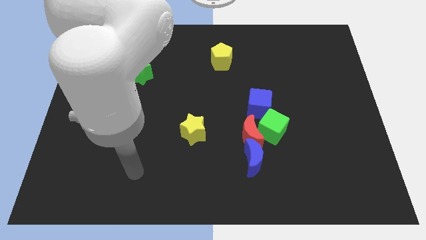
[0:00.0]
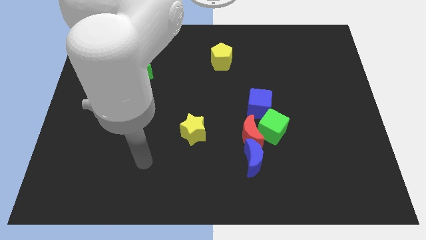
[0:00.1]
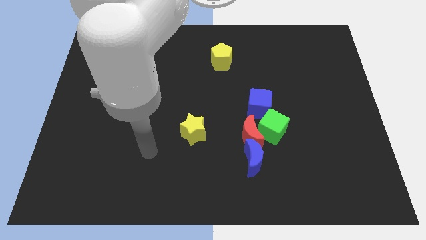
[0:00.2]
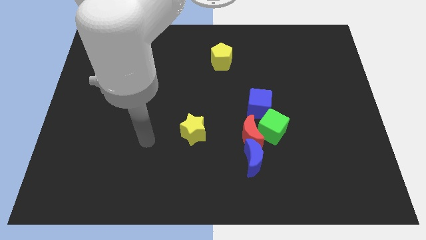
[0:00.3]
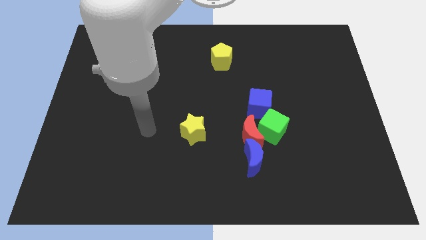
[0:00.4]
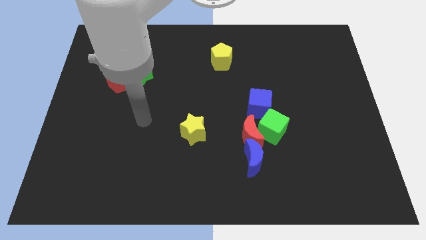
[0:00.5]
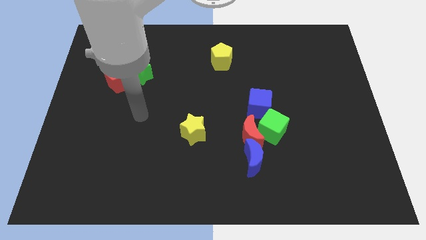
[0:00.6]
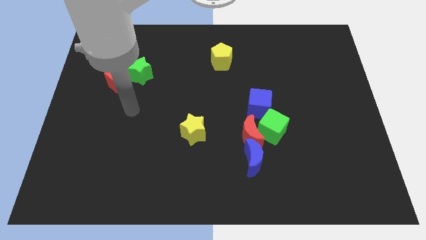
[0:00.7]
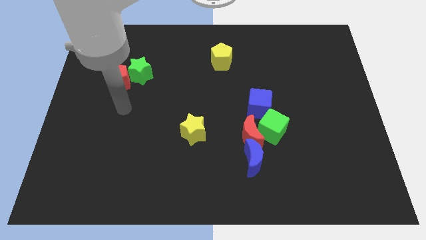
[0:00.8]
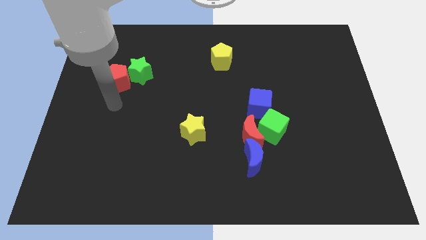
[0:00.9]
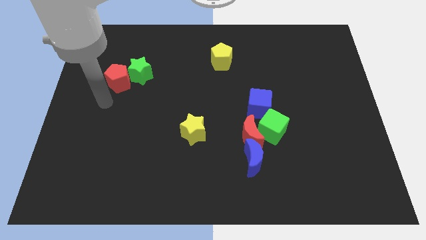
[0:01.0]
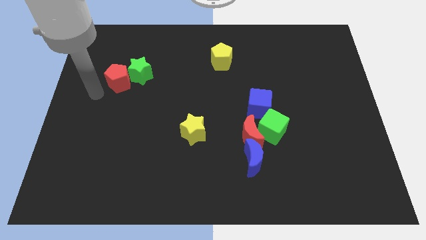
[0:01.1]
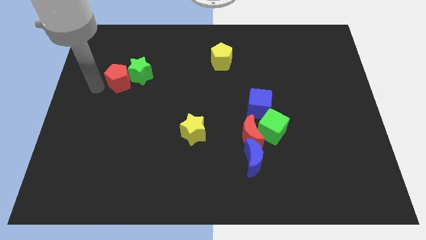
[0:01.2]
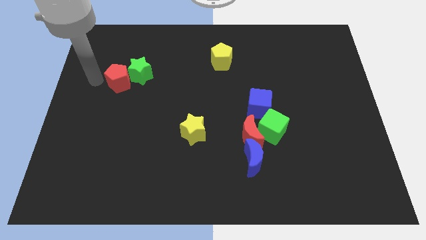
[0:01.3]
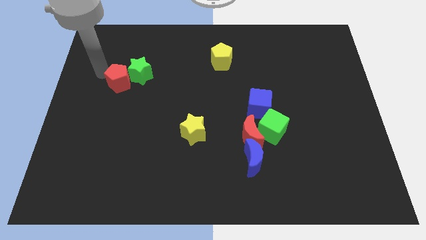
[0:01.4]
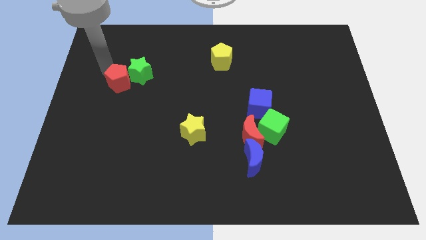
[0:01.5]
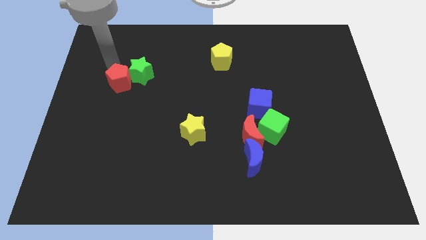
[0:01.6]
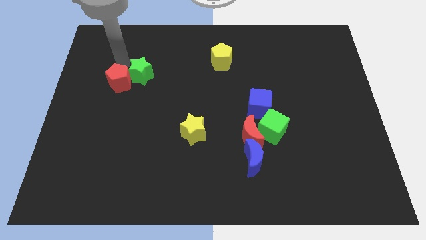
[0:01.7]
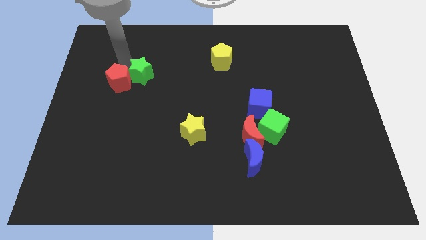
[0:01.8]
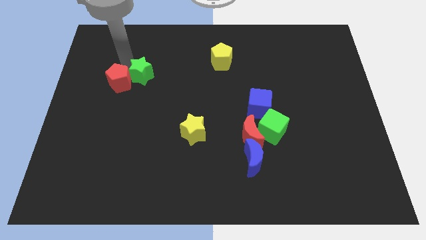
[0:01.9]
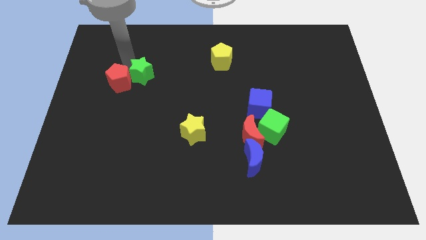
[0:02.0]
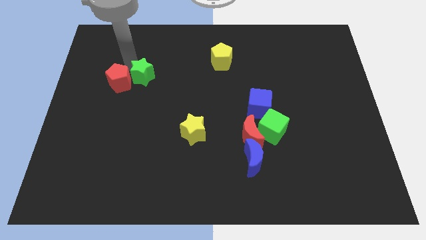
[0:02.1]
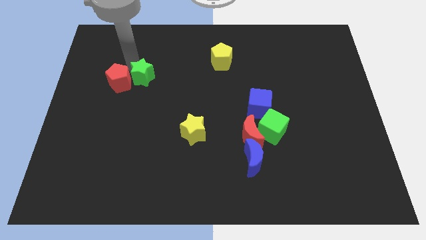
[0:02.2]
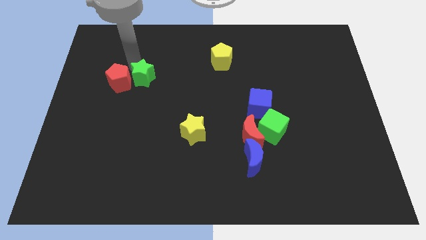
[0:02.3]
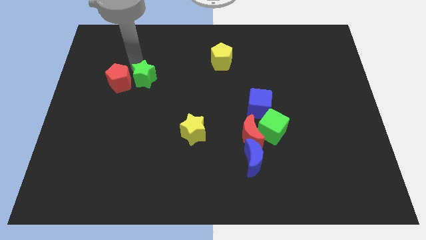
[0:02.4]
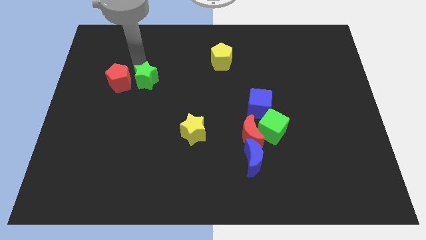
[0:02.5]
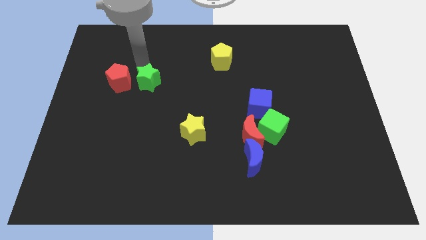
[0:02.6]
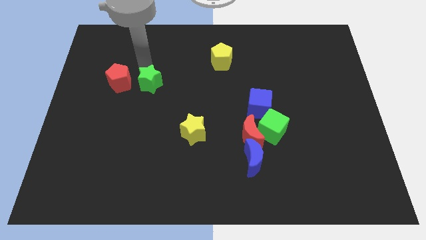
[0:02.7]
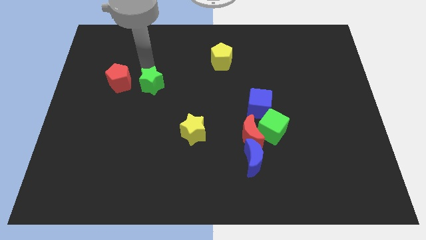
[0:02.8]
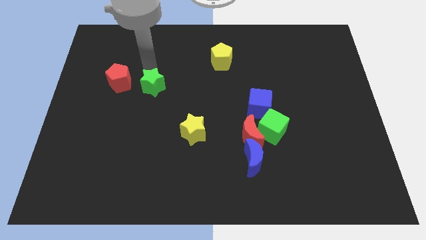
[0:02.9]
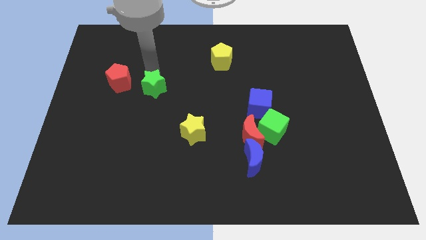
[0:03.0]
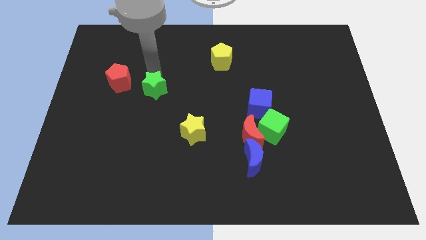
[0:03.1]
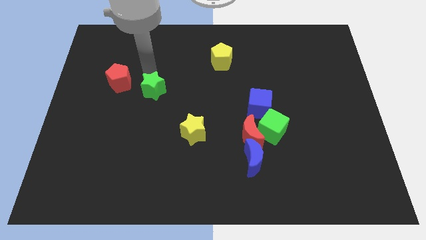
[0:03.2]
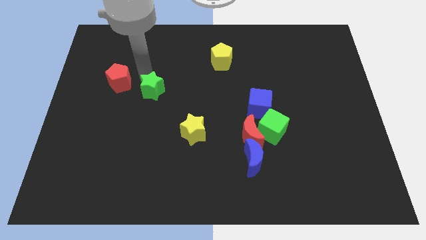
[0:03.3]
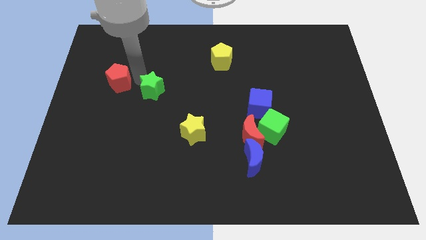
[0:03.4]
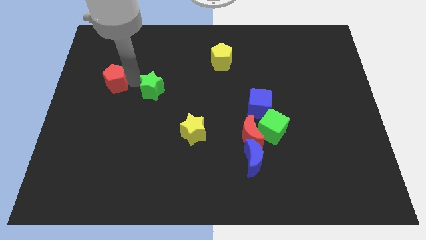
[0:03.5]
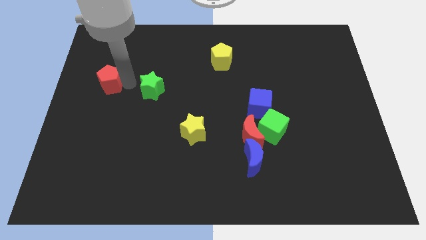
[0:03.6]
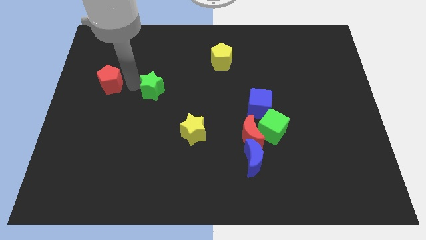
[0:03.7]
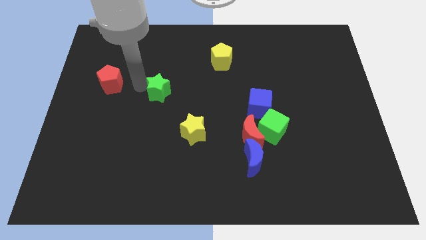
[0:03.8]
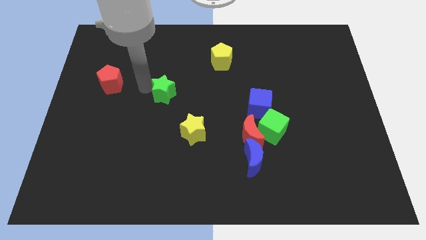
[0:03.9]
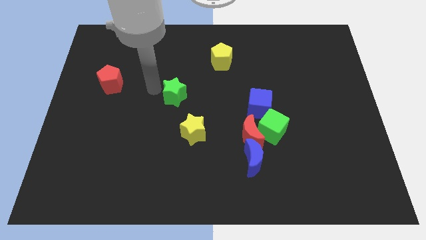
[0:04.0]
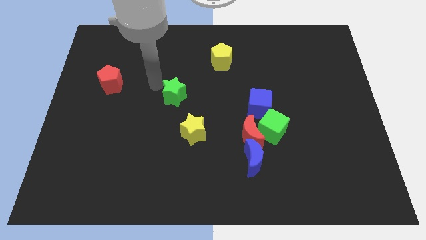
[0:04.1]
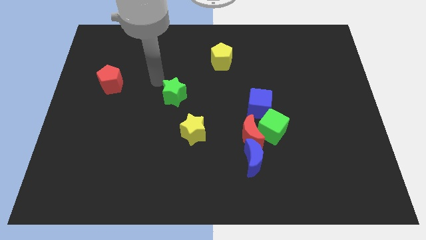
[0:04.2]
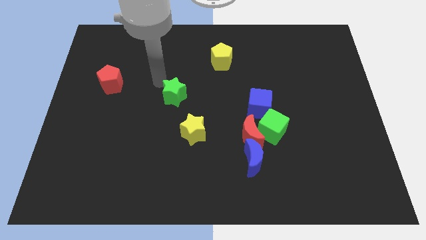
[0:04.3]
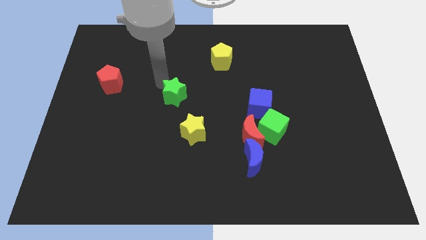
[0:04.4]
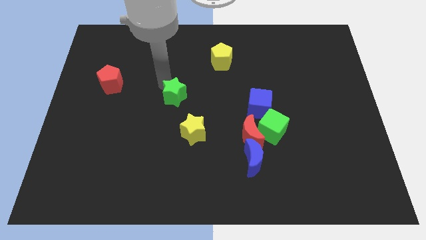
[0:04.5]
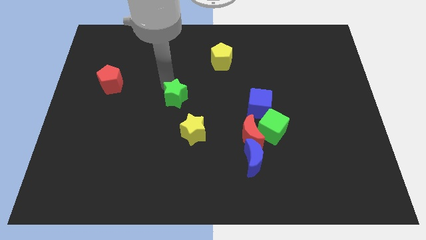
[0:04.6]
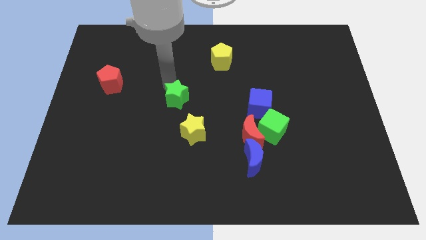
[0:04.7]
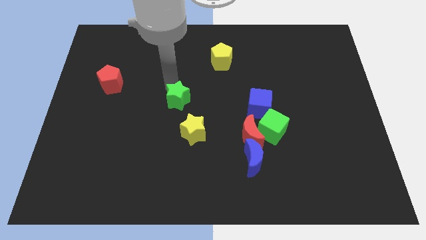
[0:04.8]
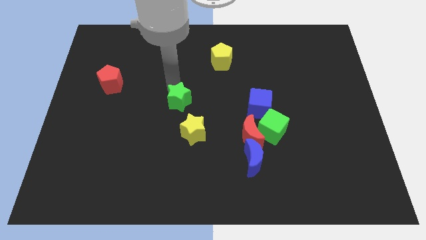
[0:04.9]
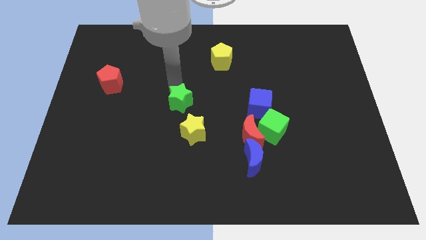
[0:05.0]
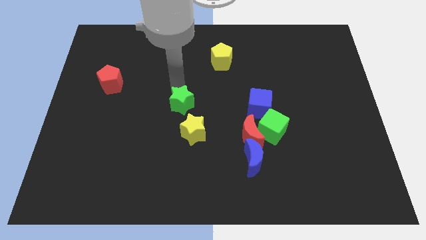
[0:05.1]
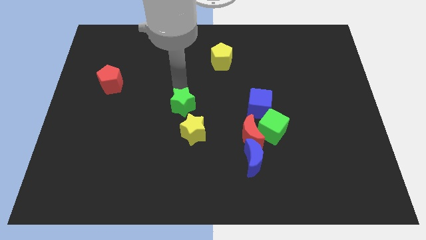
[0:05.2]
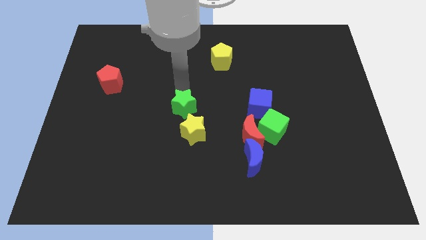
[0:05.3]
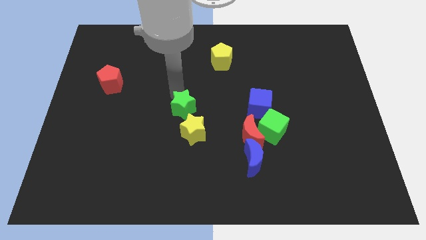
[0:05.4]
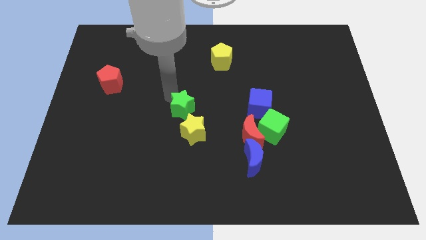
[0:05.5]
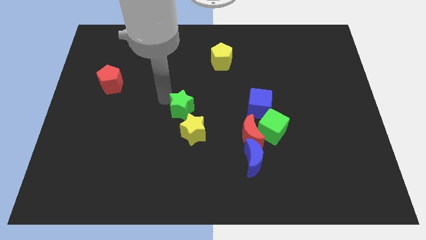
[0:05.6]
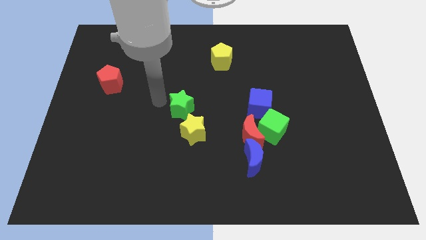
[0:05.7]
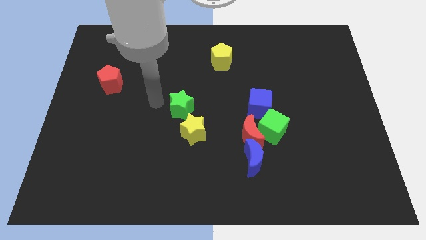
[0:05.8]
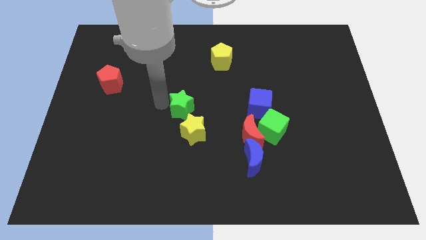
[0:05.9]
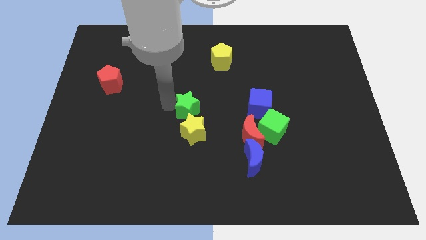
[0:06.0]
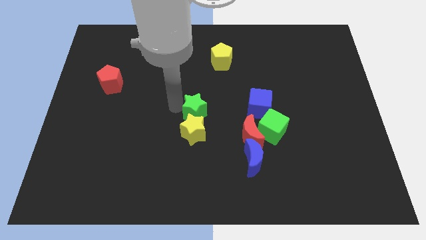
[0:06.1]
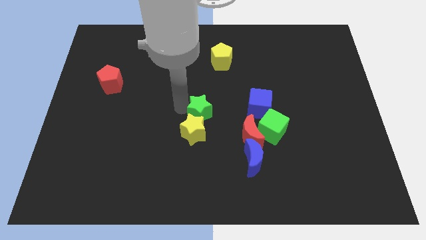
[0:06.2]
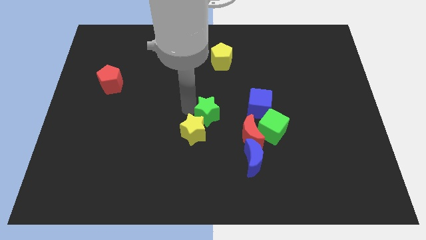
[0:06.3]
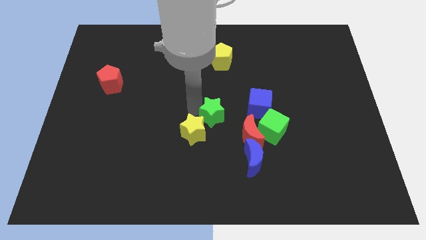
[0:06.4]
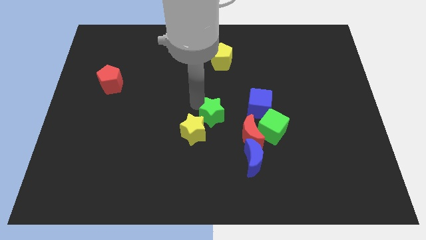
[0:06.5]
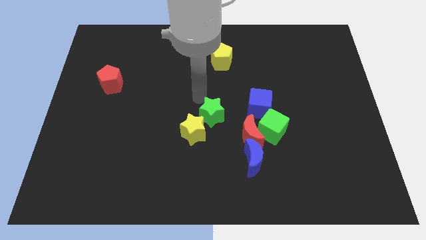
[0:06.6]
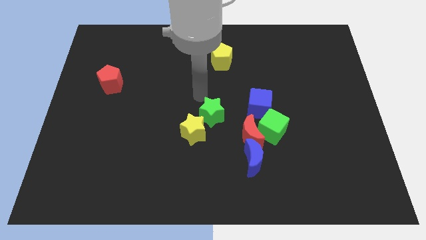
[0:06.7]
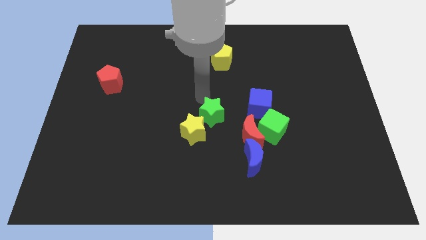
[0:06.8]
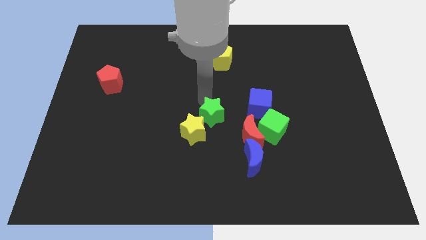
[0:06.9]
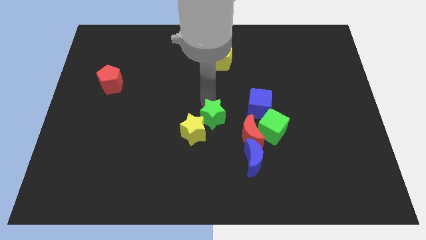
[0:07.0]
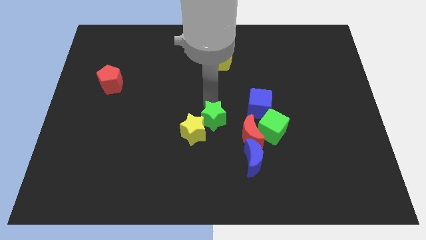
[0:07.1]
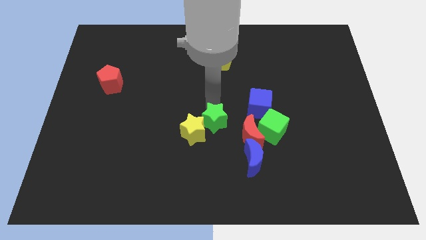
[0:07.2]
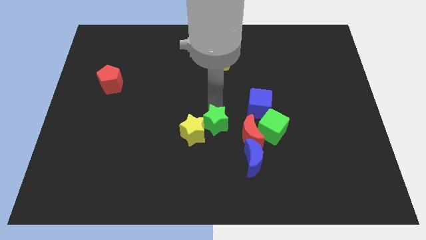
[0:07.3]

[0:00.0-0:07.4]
push the green star to the top left of the blue moon
